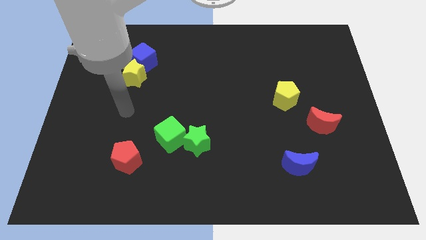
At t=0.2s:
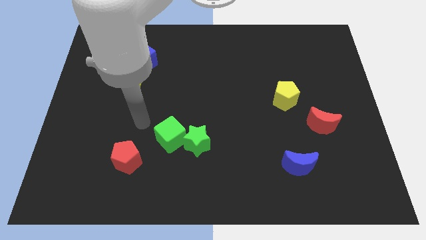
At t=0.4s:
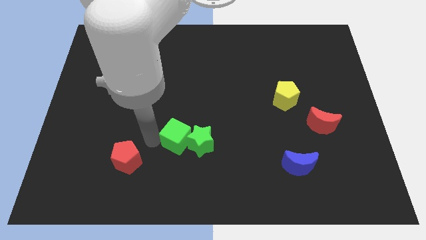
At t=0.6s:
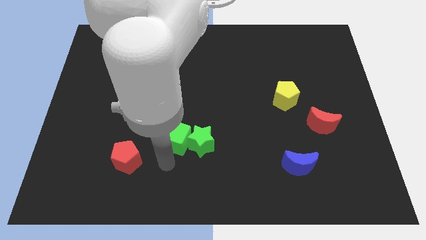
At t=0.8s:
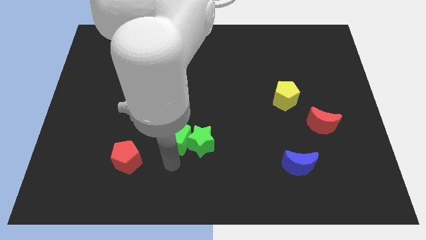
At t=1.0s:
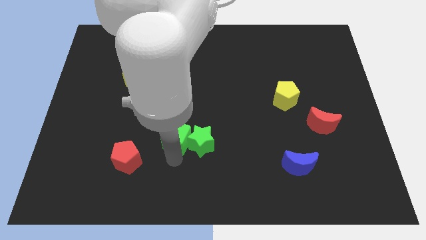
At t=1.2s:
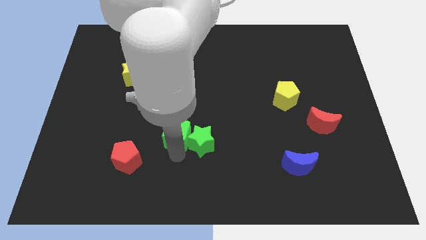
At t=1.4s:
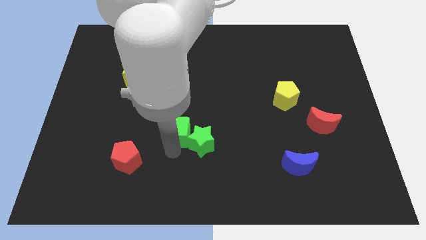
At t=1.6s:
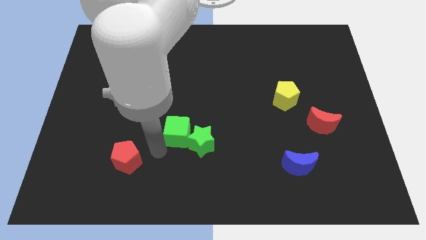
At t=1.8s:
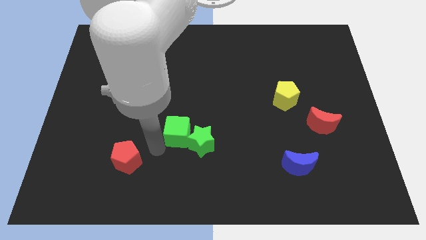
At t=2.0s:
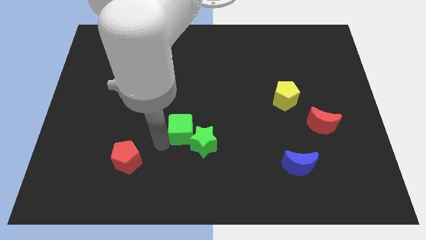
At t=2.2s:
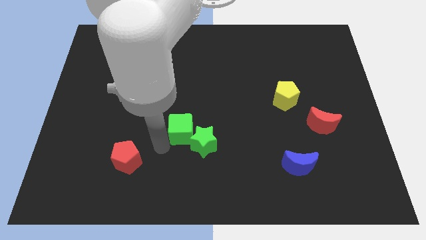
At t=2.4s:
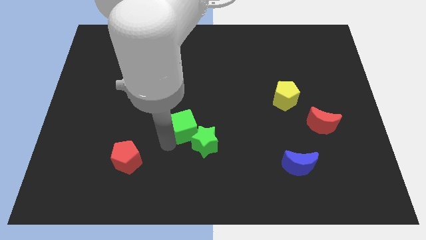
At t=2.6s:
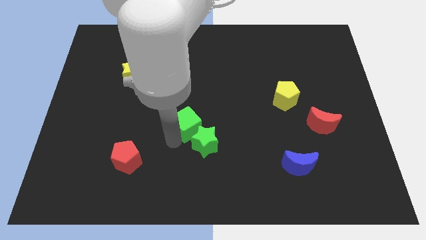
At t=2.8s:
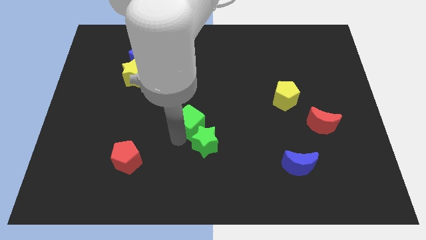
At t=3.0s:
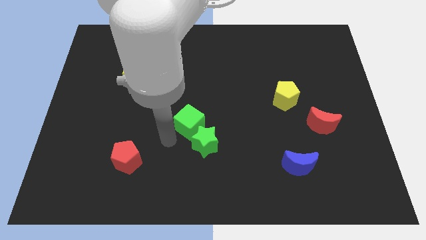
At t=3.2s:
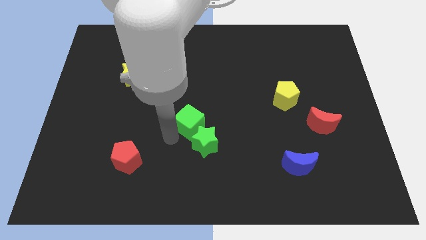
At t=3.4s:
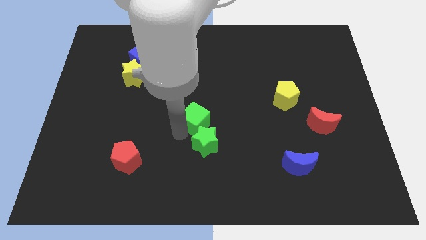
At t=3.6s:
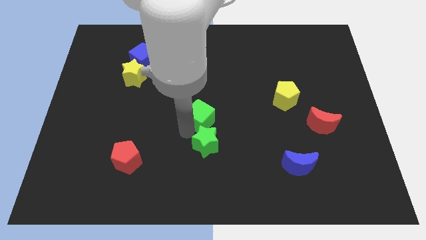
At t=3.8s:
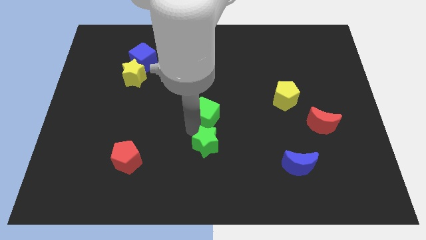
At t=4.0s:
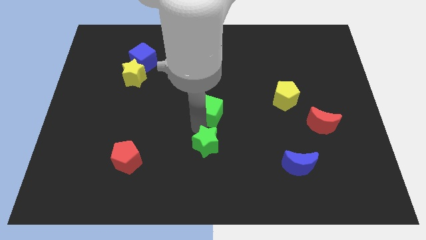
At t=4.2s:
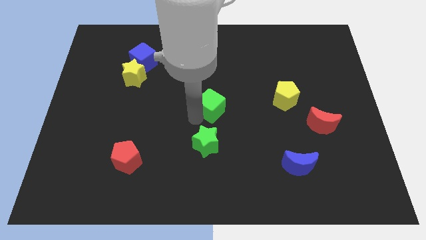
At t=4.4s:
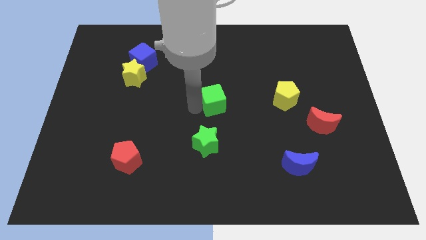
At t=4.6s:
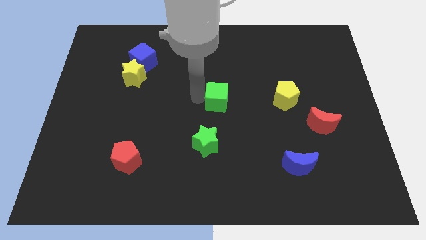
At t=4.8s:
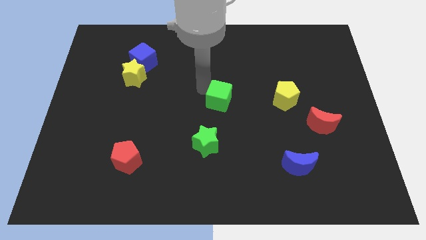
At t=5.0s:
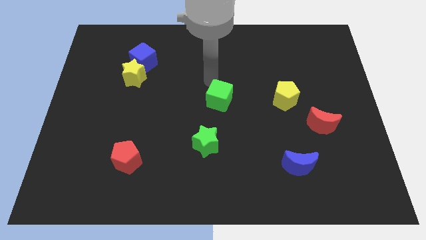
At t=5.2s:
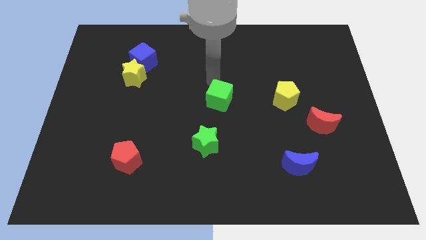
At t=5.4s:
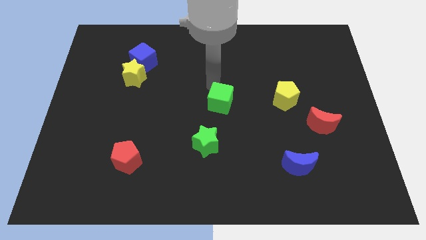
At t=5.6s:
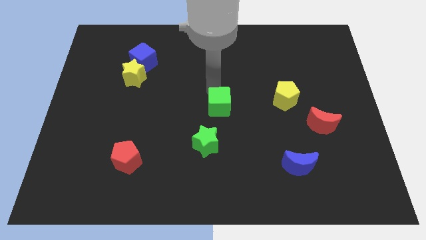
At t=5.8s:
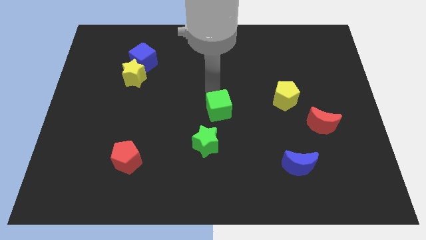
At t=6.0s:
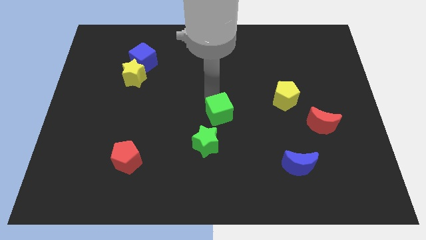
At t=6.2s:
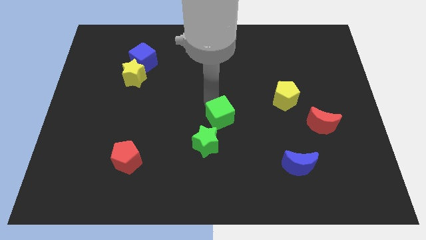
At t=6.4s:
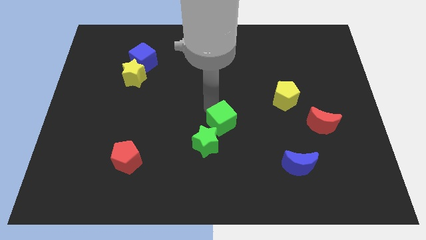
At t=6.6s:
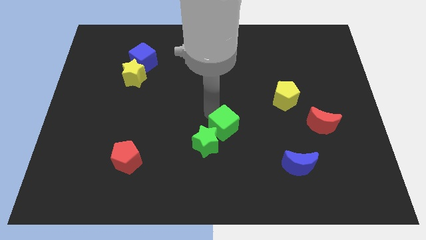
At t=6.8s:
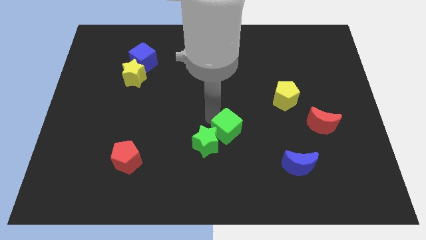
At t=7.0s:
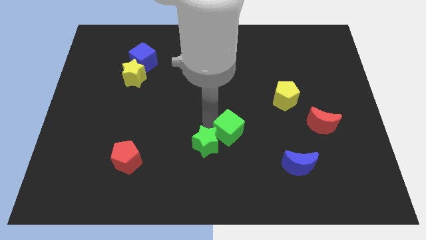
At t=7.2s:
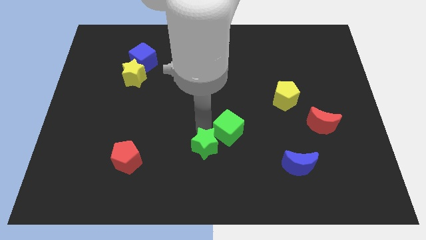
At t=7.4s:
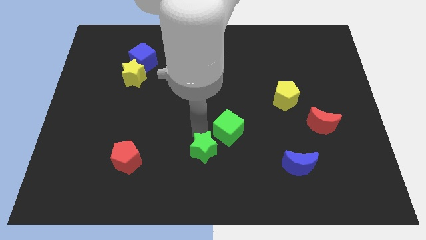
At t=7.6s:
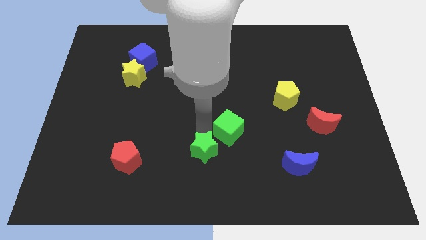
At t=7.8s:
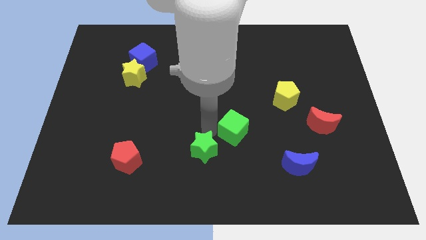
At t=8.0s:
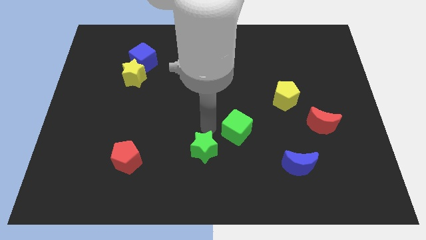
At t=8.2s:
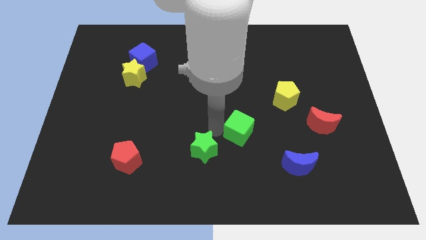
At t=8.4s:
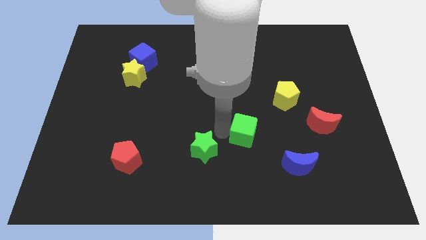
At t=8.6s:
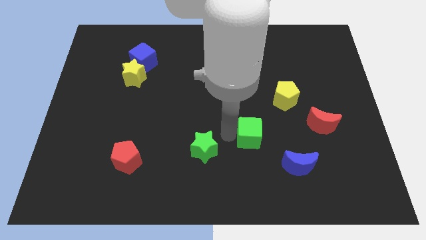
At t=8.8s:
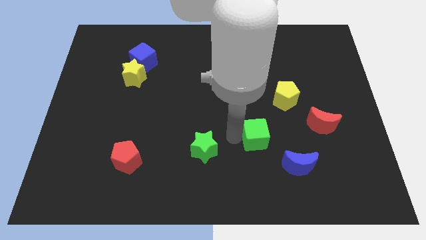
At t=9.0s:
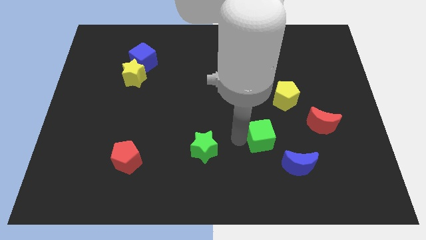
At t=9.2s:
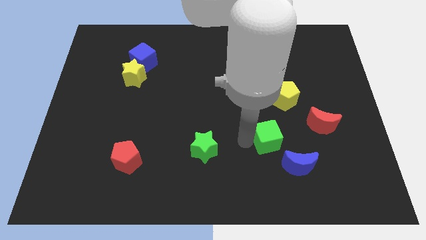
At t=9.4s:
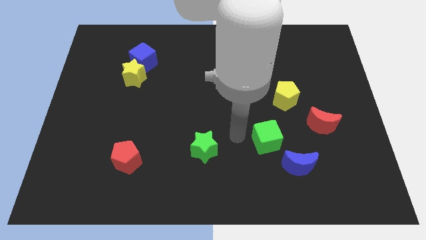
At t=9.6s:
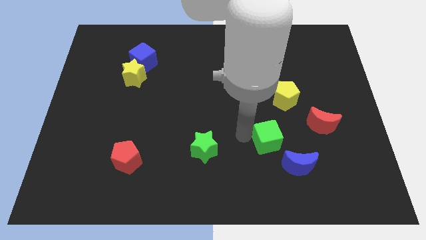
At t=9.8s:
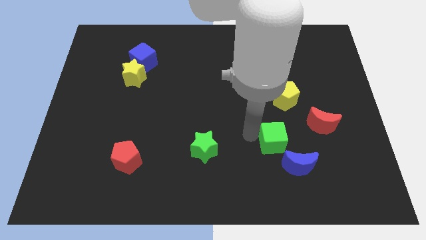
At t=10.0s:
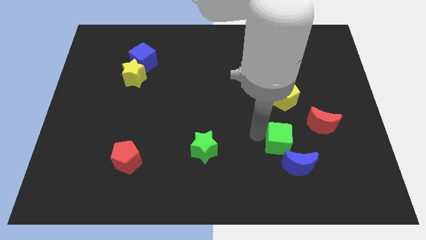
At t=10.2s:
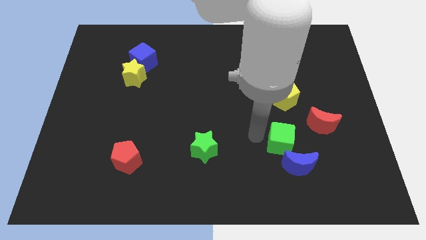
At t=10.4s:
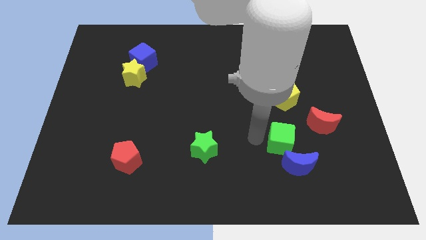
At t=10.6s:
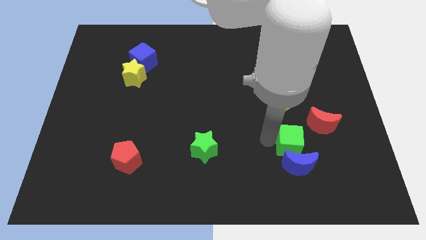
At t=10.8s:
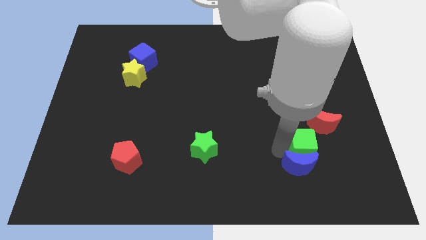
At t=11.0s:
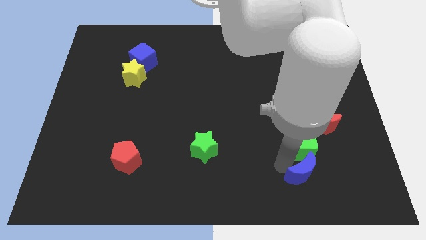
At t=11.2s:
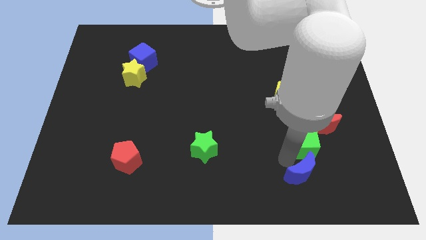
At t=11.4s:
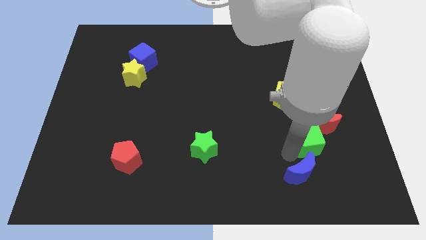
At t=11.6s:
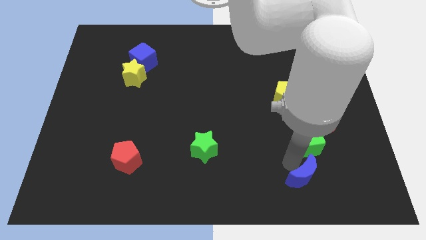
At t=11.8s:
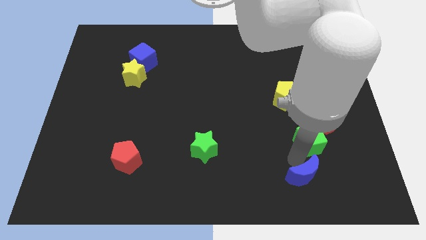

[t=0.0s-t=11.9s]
slide the green cube towards the red moon

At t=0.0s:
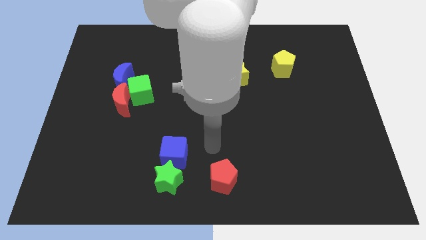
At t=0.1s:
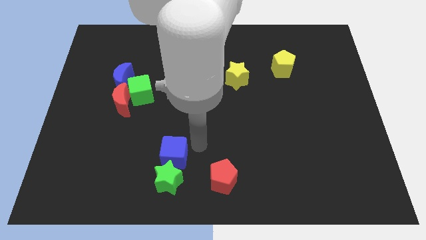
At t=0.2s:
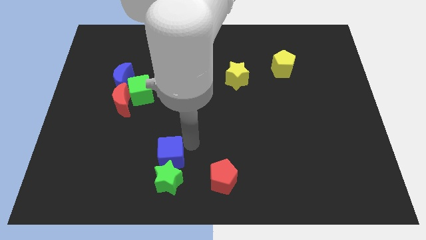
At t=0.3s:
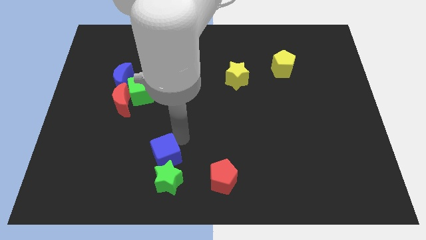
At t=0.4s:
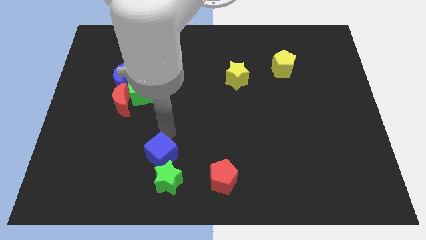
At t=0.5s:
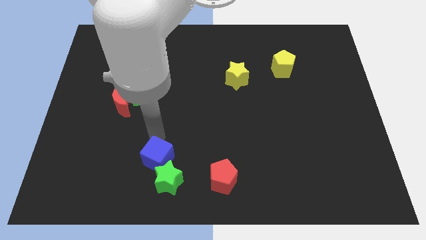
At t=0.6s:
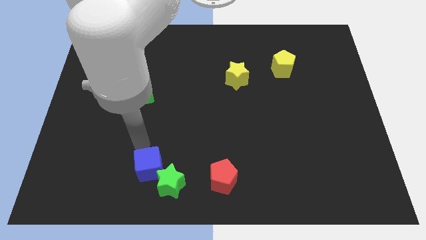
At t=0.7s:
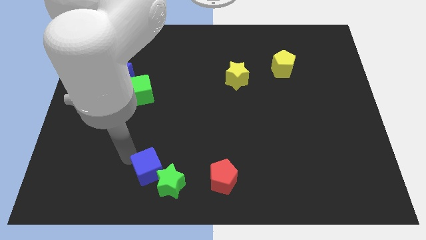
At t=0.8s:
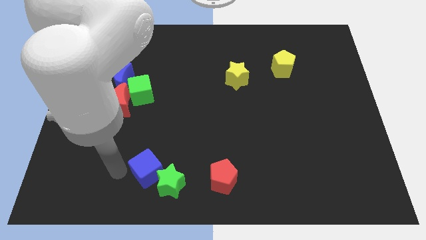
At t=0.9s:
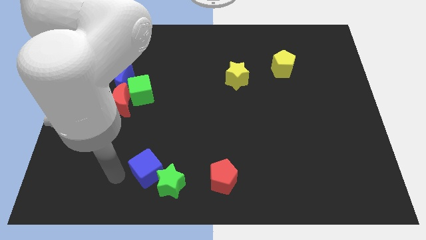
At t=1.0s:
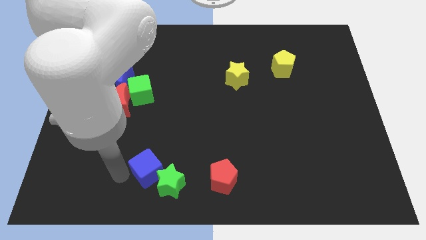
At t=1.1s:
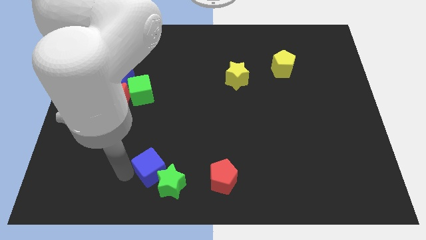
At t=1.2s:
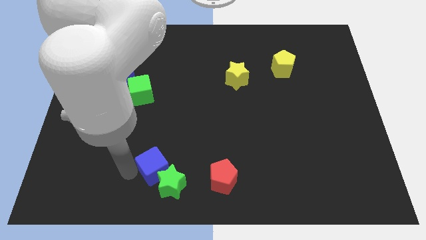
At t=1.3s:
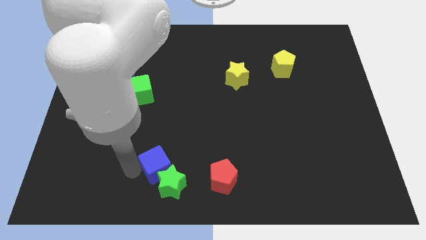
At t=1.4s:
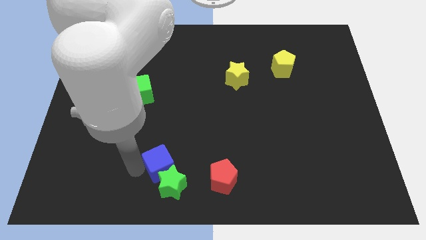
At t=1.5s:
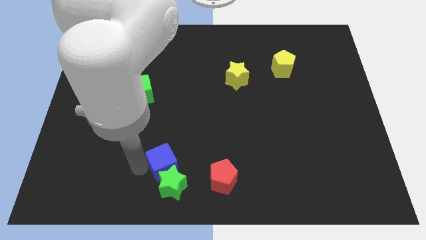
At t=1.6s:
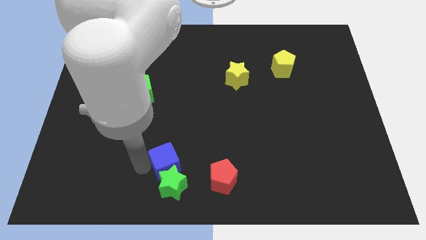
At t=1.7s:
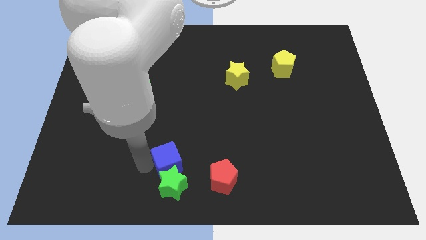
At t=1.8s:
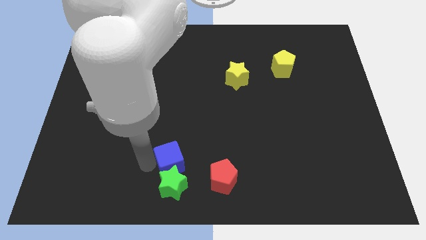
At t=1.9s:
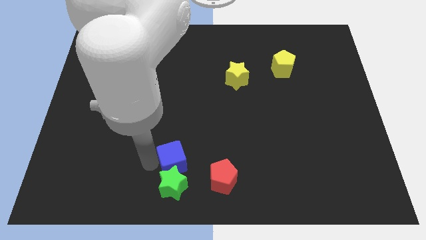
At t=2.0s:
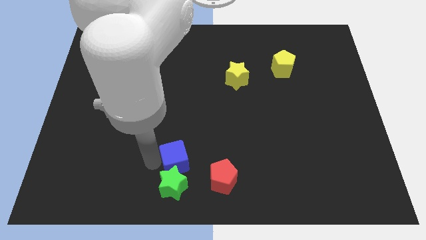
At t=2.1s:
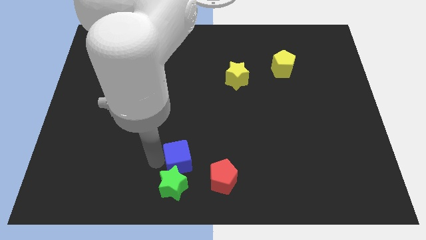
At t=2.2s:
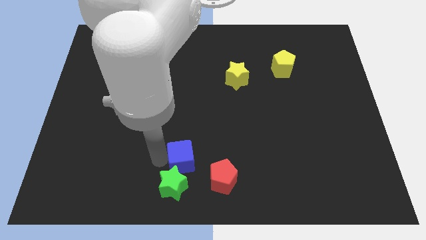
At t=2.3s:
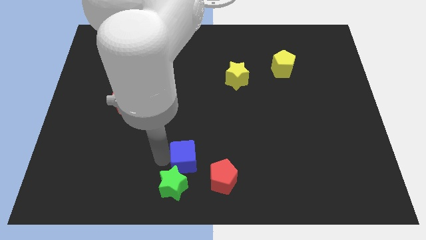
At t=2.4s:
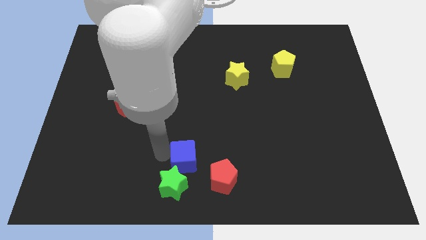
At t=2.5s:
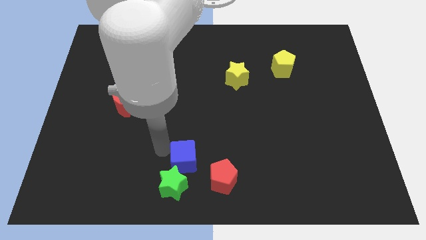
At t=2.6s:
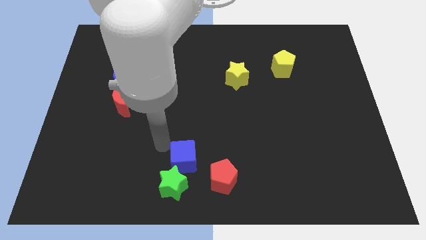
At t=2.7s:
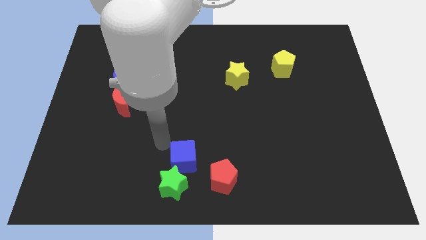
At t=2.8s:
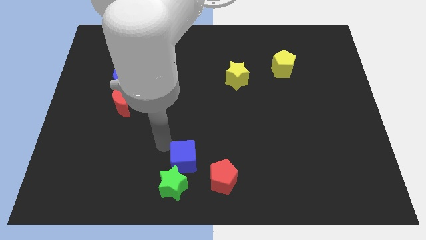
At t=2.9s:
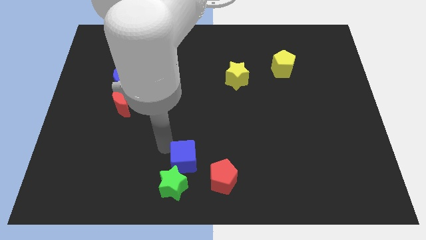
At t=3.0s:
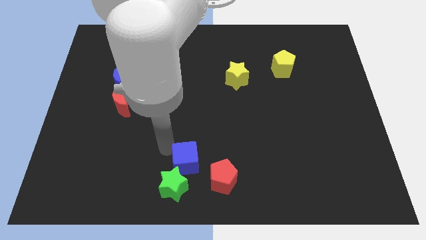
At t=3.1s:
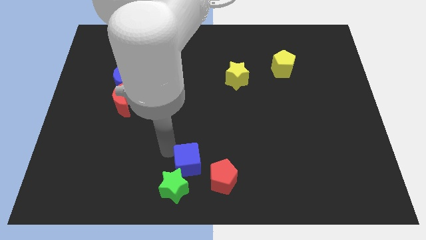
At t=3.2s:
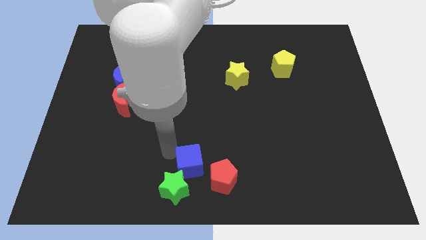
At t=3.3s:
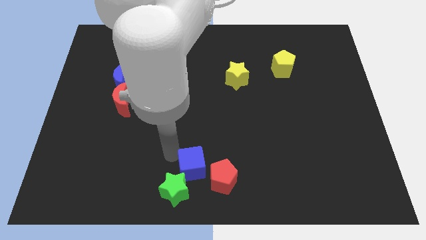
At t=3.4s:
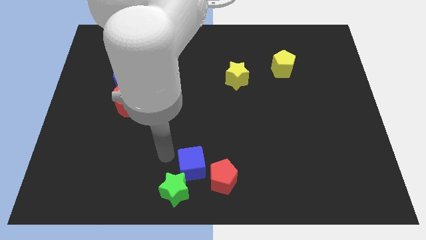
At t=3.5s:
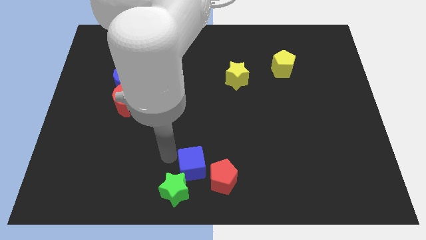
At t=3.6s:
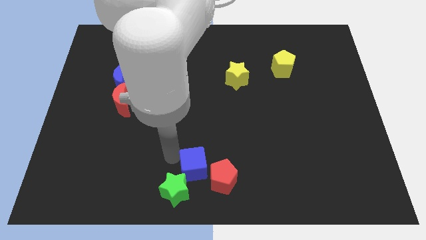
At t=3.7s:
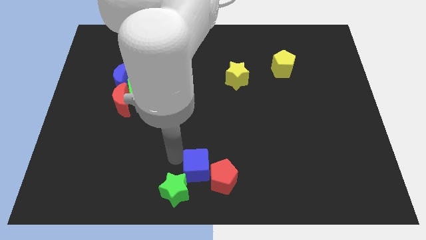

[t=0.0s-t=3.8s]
slide the blue cube close to the red pentagon
